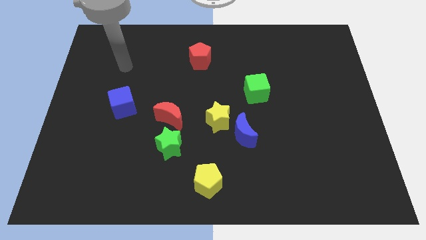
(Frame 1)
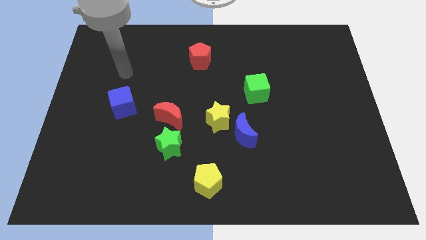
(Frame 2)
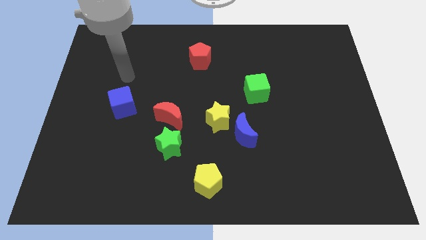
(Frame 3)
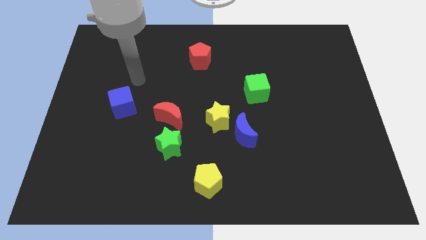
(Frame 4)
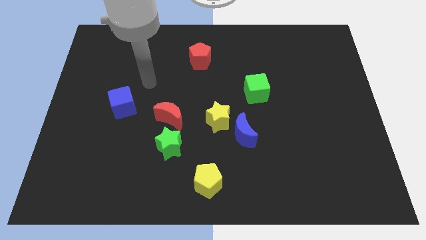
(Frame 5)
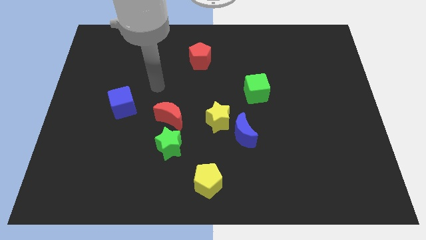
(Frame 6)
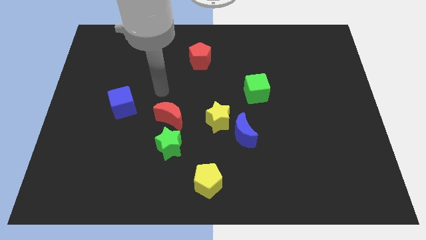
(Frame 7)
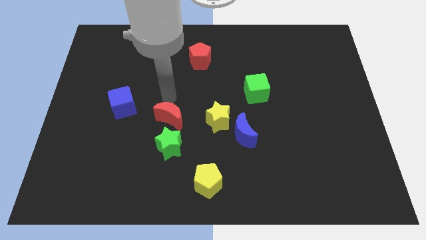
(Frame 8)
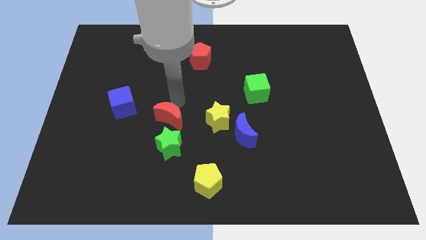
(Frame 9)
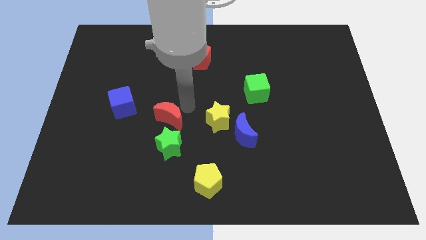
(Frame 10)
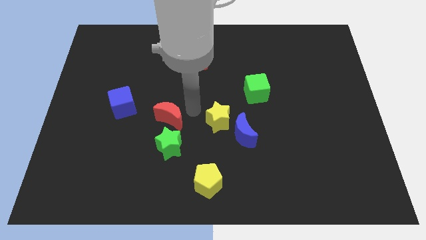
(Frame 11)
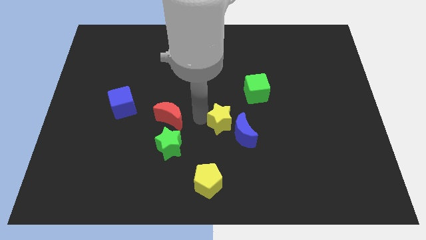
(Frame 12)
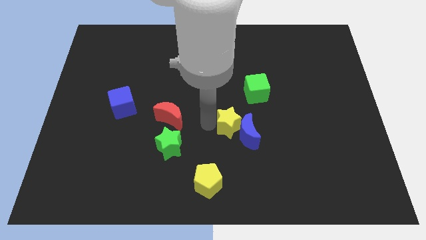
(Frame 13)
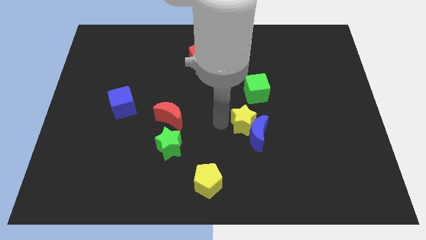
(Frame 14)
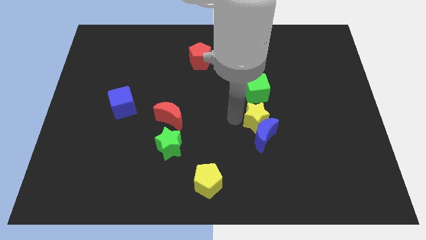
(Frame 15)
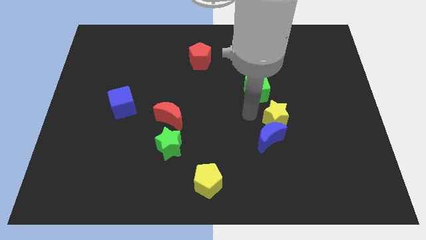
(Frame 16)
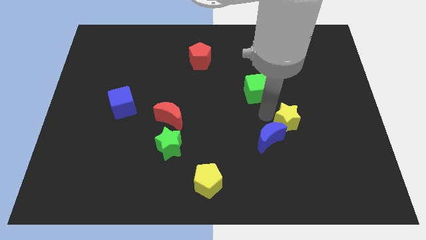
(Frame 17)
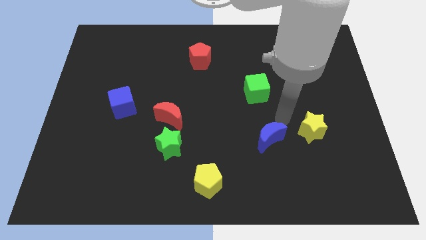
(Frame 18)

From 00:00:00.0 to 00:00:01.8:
move the blue moon away from the yellow star

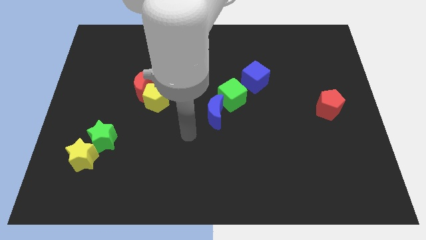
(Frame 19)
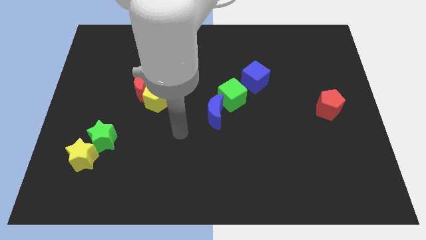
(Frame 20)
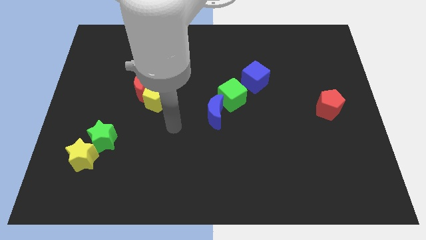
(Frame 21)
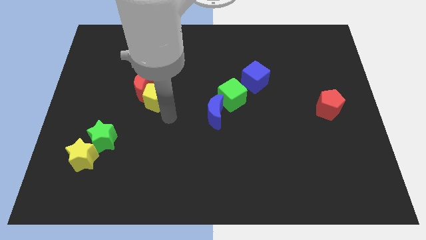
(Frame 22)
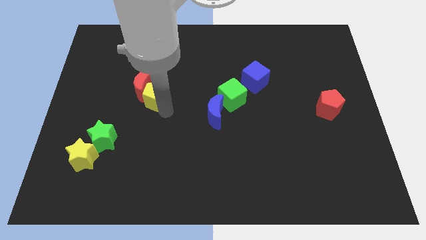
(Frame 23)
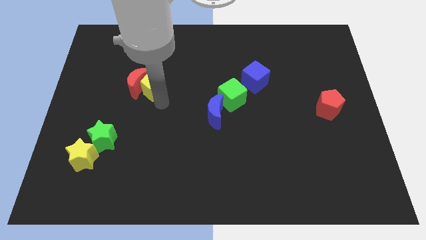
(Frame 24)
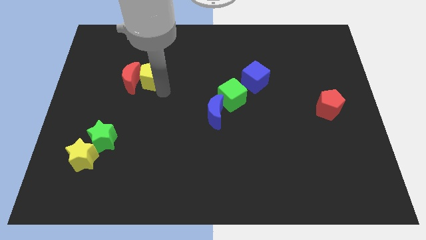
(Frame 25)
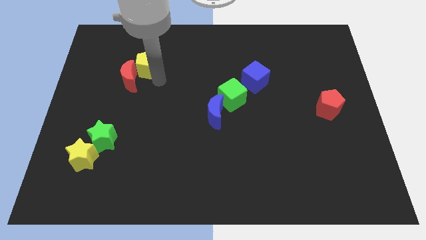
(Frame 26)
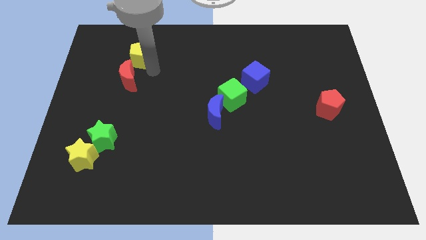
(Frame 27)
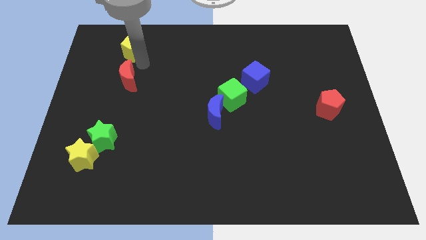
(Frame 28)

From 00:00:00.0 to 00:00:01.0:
pull the red moon apart from the yellow pentagon

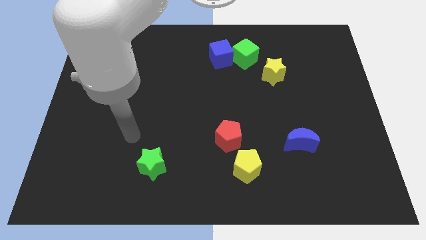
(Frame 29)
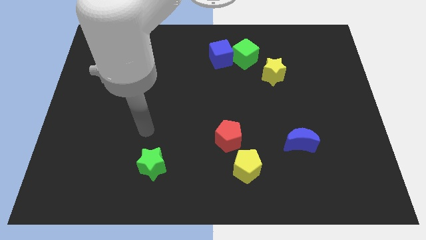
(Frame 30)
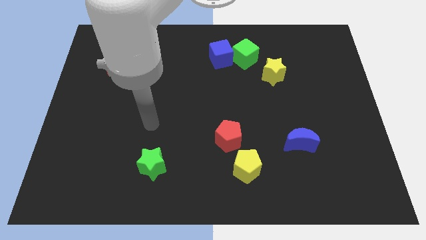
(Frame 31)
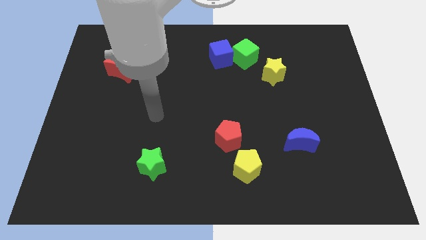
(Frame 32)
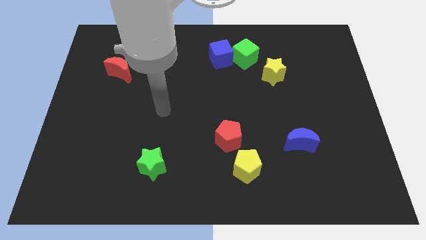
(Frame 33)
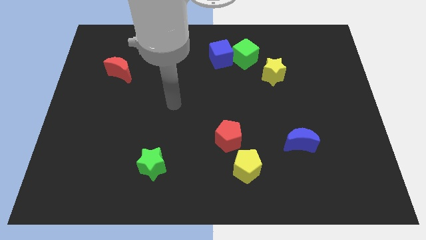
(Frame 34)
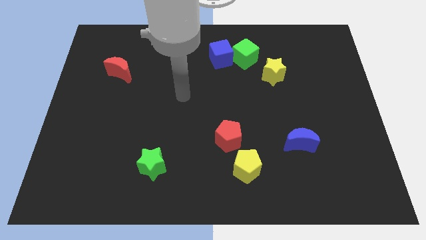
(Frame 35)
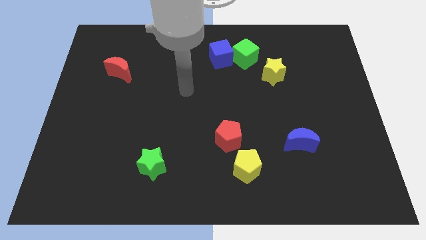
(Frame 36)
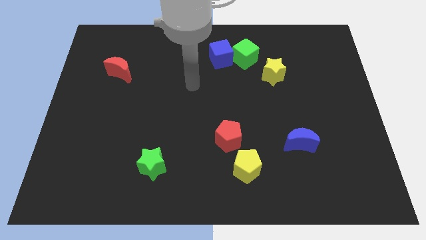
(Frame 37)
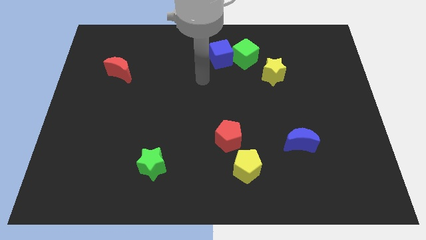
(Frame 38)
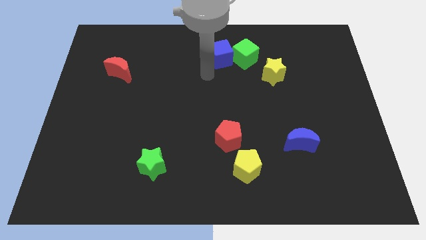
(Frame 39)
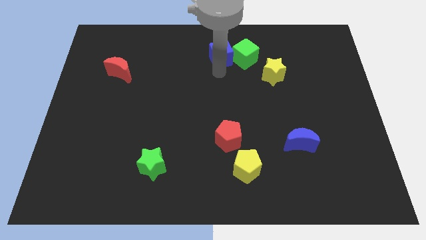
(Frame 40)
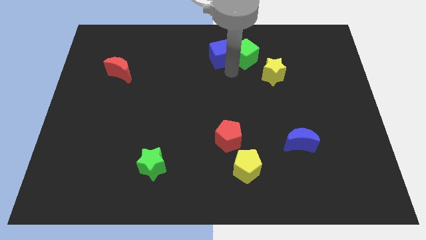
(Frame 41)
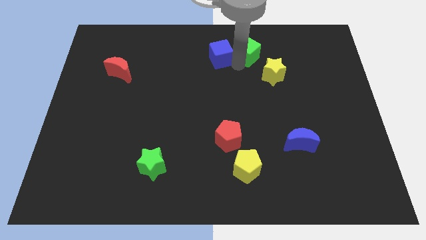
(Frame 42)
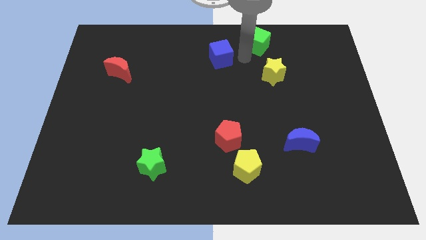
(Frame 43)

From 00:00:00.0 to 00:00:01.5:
move the blue cube away from the green cube

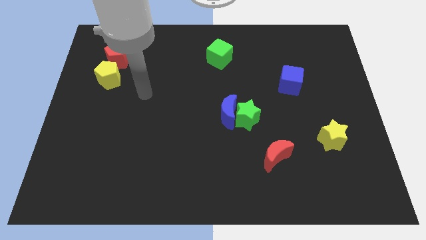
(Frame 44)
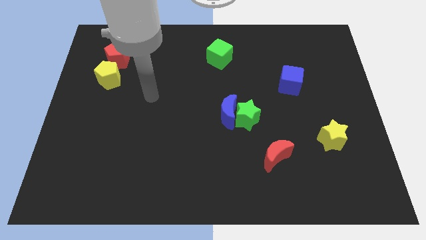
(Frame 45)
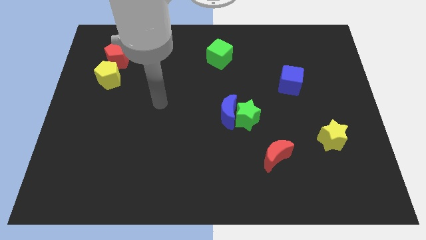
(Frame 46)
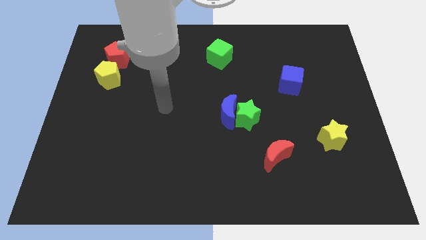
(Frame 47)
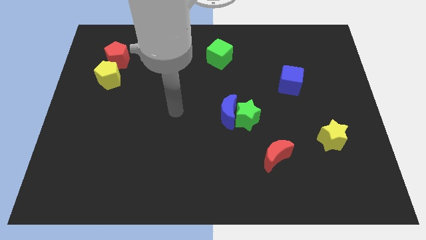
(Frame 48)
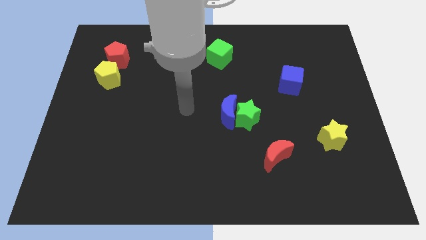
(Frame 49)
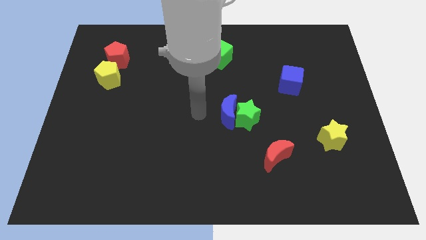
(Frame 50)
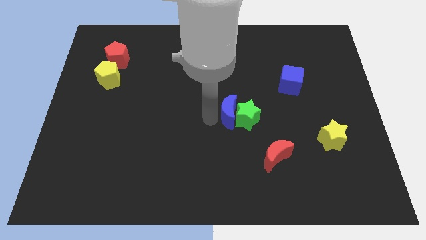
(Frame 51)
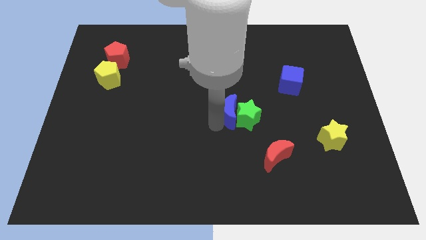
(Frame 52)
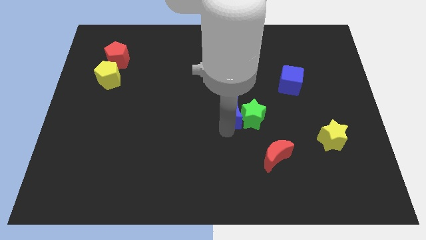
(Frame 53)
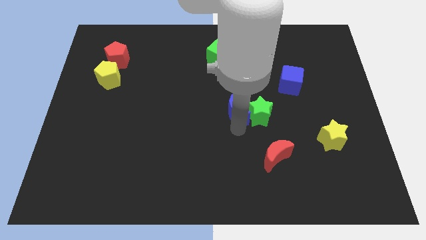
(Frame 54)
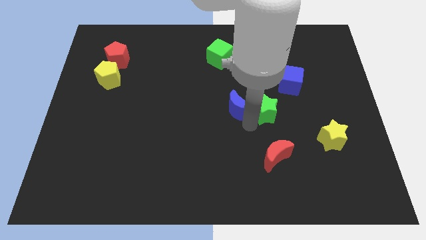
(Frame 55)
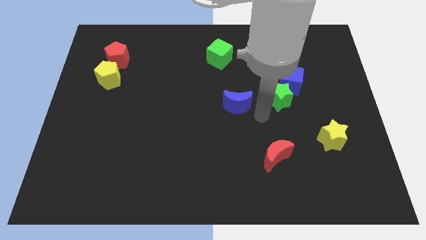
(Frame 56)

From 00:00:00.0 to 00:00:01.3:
separate the blue moon from the green star

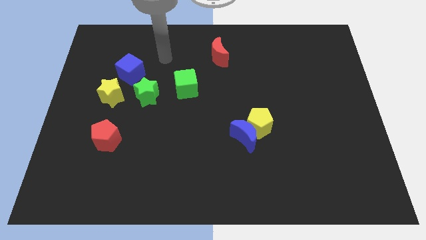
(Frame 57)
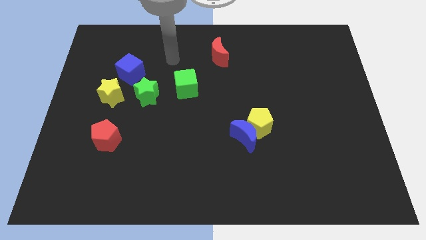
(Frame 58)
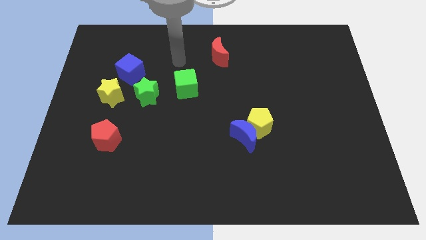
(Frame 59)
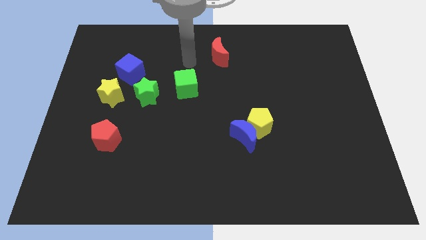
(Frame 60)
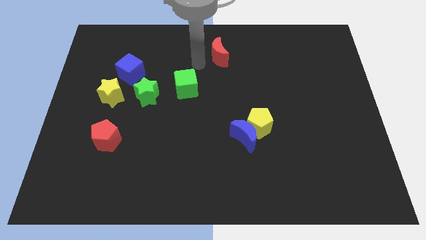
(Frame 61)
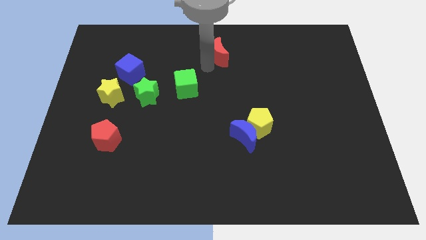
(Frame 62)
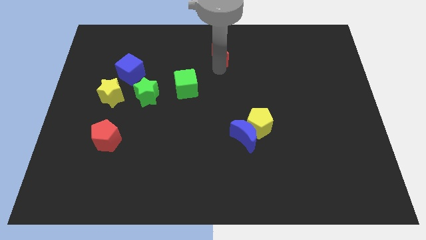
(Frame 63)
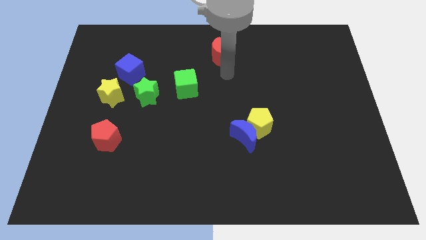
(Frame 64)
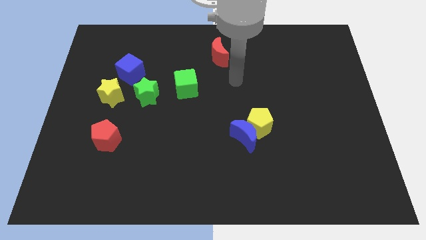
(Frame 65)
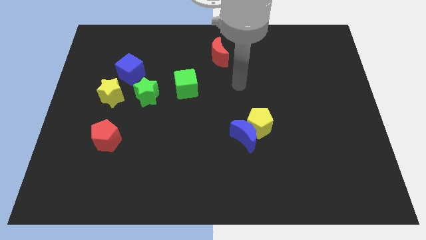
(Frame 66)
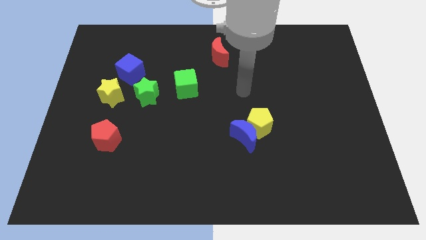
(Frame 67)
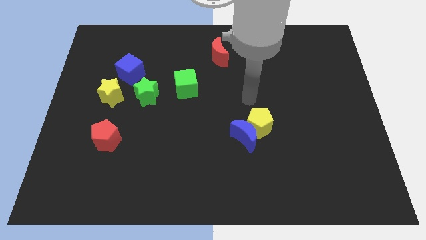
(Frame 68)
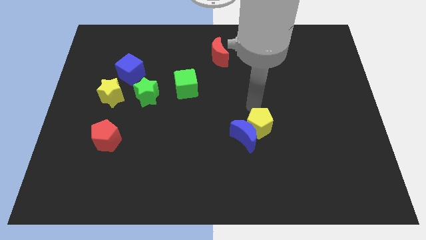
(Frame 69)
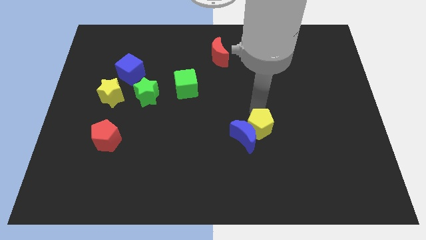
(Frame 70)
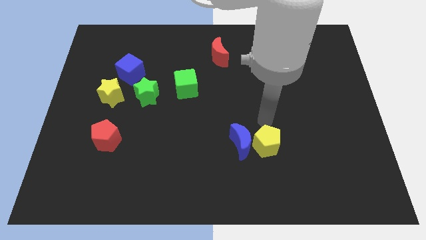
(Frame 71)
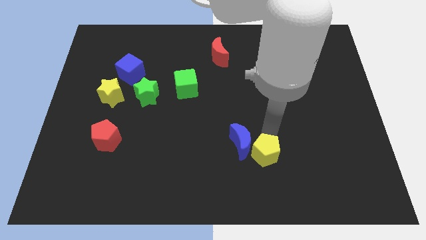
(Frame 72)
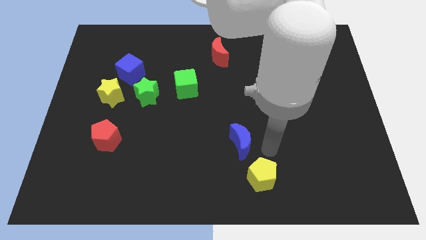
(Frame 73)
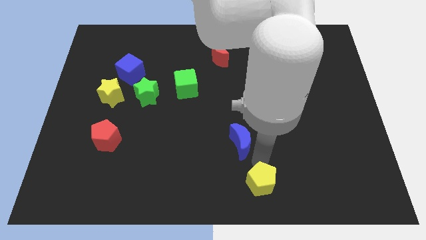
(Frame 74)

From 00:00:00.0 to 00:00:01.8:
move the blue moon away from the yellow pentagon

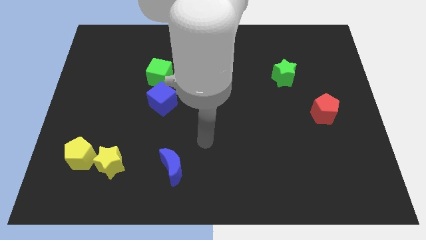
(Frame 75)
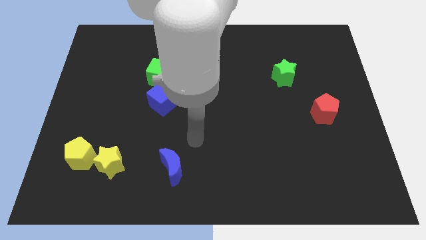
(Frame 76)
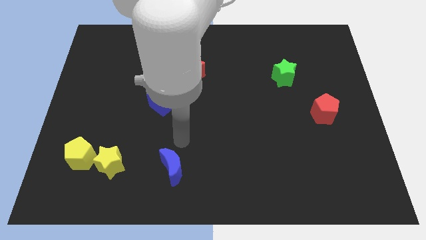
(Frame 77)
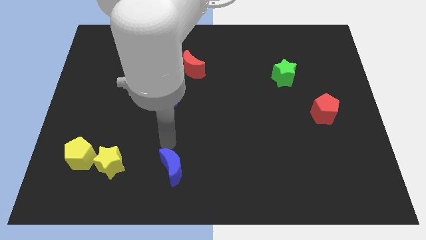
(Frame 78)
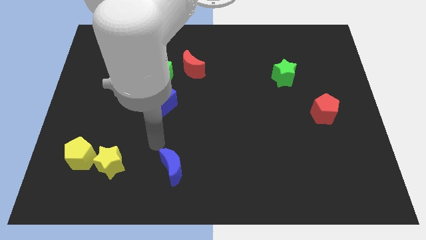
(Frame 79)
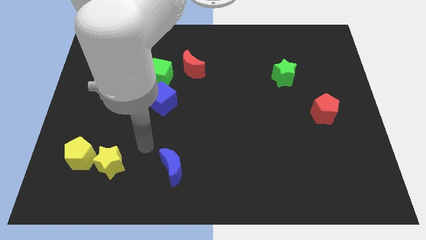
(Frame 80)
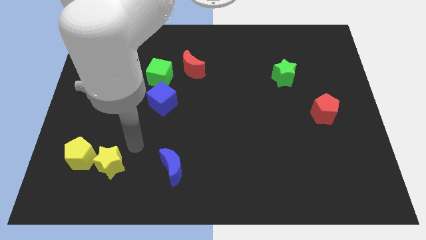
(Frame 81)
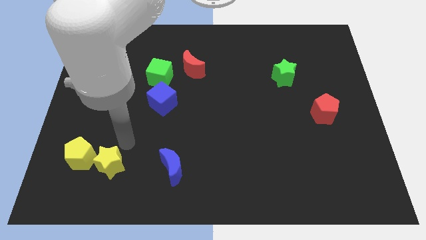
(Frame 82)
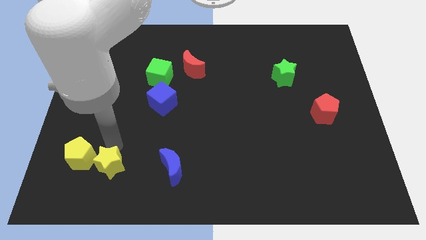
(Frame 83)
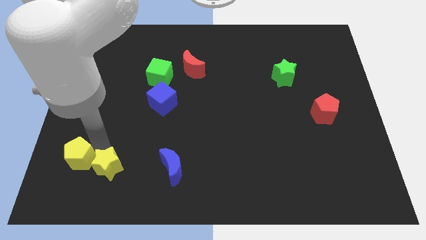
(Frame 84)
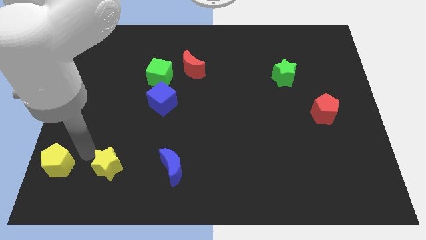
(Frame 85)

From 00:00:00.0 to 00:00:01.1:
pull the yellow star apart from the yellow pentagon

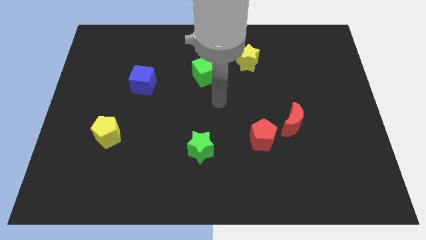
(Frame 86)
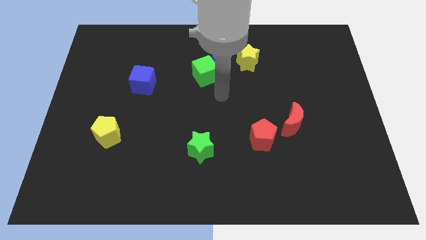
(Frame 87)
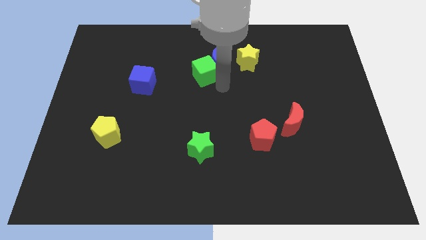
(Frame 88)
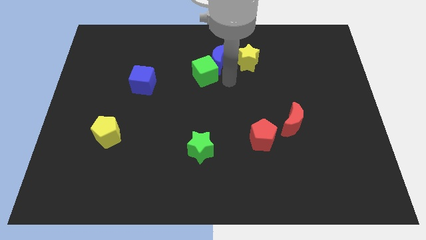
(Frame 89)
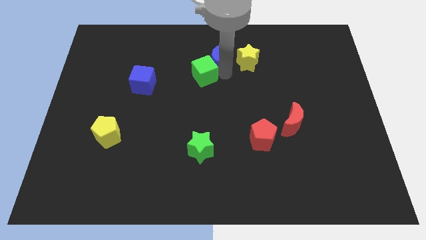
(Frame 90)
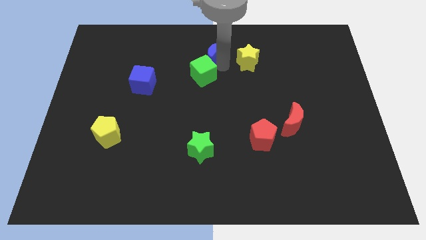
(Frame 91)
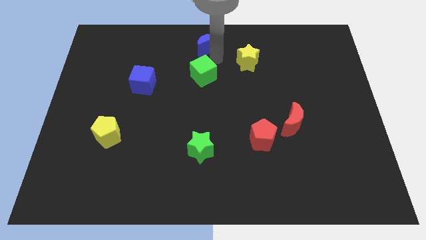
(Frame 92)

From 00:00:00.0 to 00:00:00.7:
move the green cube away from the blue moon

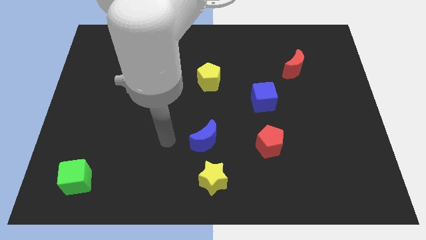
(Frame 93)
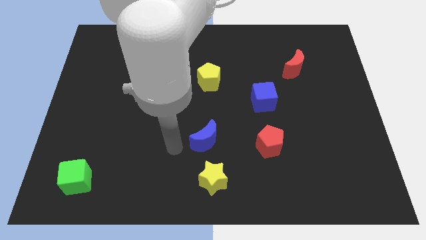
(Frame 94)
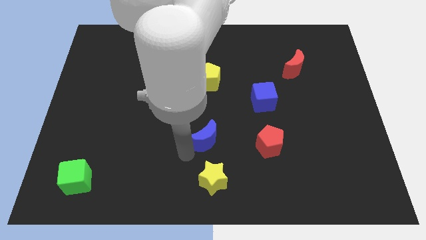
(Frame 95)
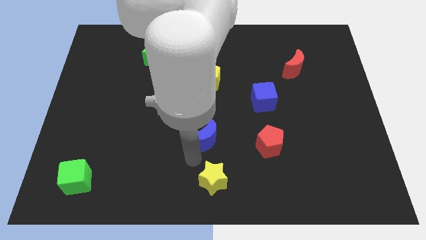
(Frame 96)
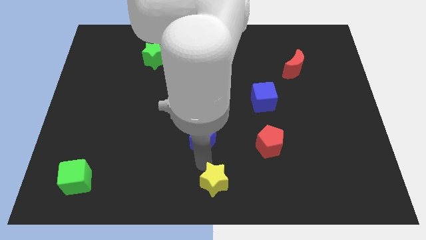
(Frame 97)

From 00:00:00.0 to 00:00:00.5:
pull the blue moon apart from the yellow star
